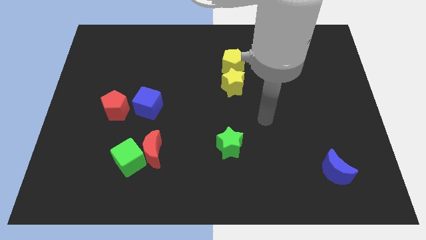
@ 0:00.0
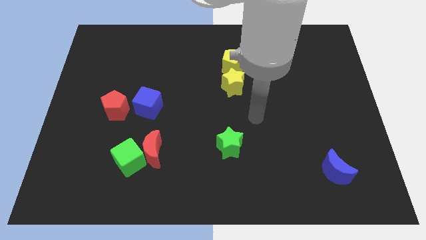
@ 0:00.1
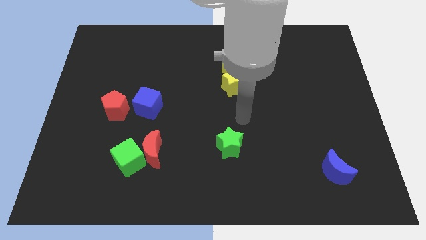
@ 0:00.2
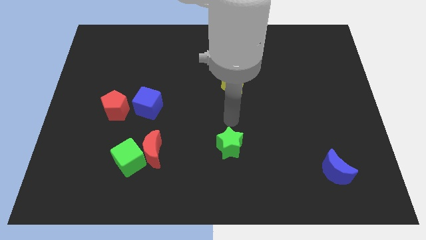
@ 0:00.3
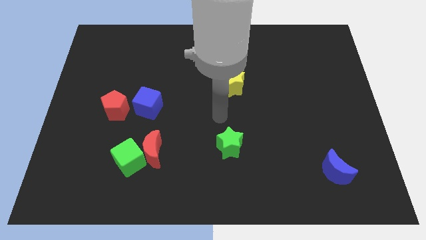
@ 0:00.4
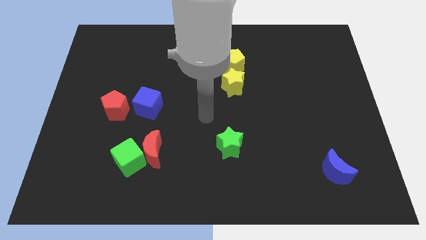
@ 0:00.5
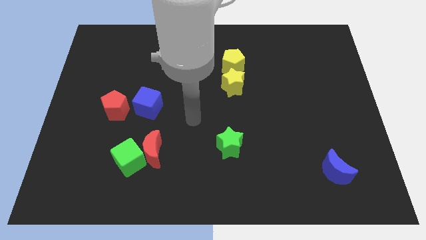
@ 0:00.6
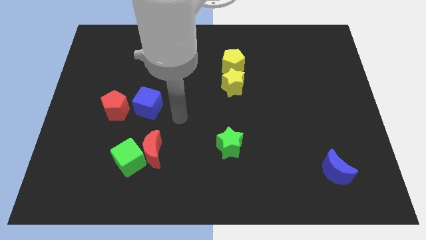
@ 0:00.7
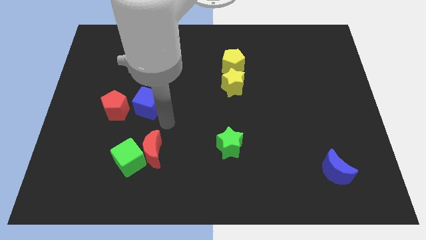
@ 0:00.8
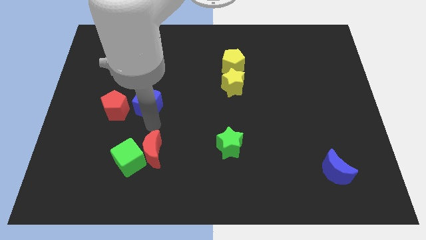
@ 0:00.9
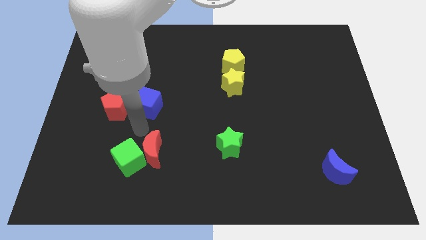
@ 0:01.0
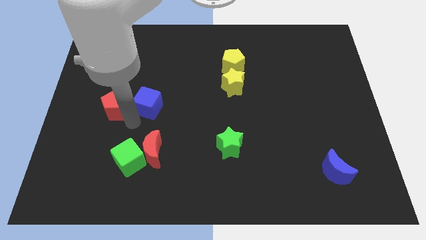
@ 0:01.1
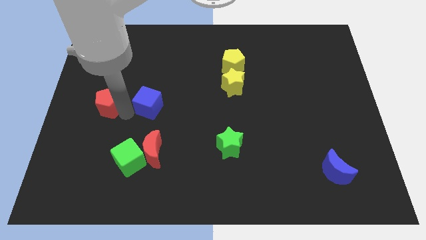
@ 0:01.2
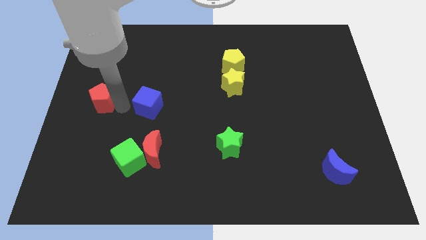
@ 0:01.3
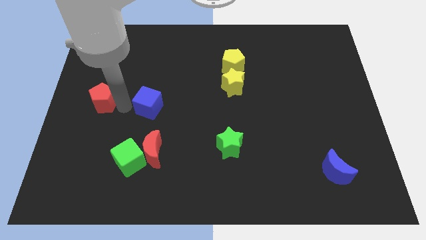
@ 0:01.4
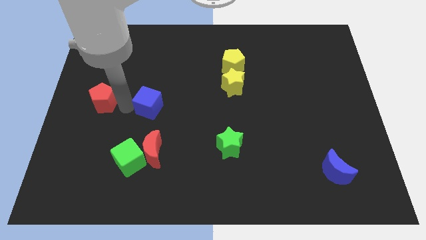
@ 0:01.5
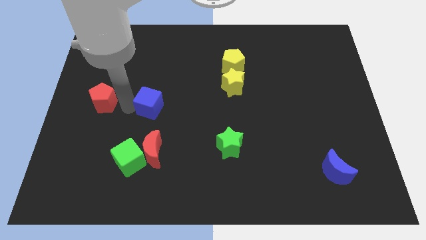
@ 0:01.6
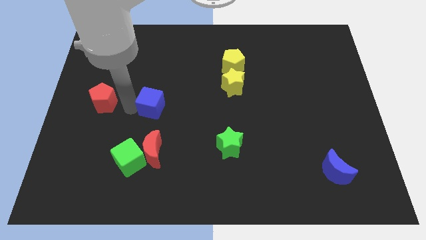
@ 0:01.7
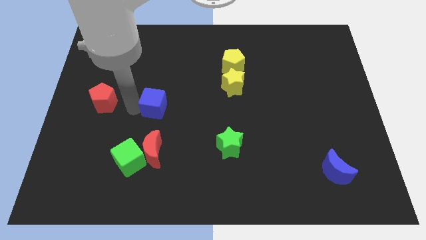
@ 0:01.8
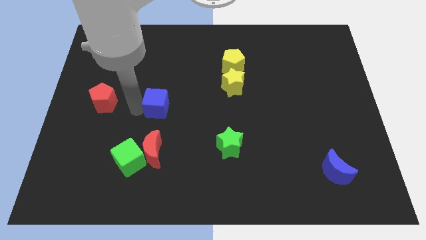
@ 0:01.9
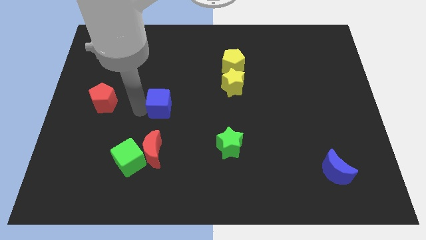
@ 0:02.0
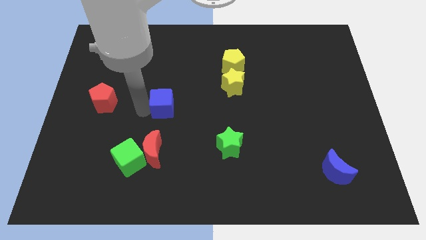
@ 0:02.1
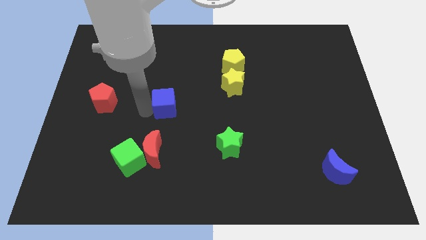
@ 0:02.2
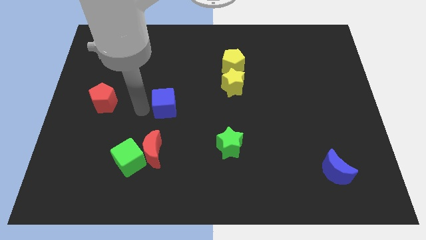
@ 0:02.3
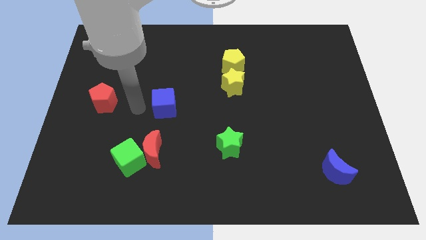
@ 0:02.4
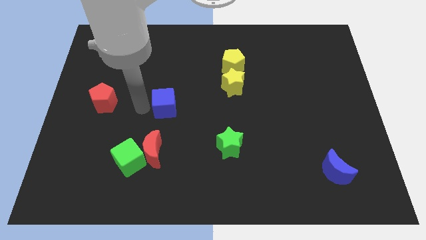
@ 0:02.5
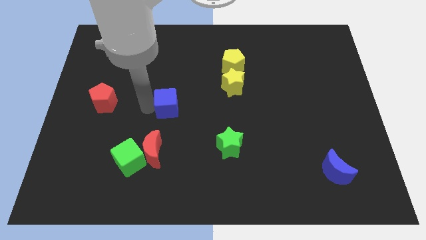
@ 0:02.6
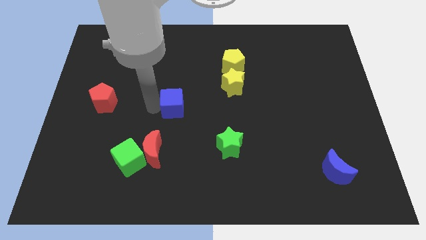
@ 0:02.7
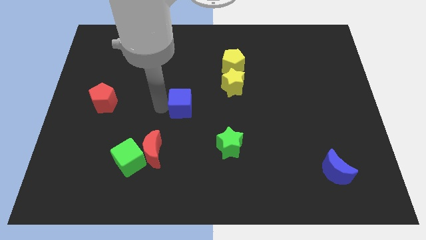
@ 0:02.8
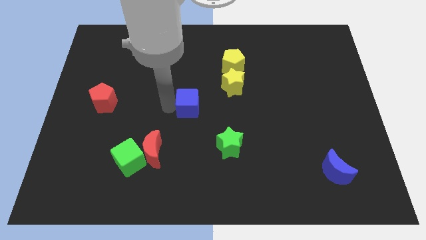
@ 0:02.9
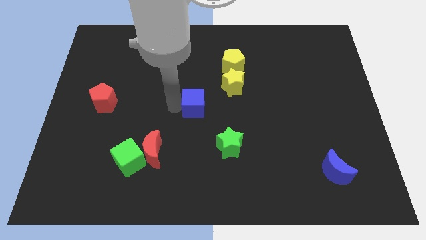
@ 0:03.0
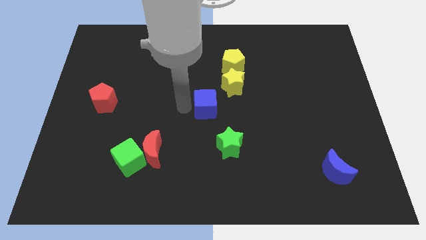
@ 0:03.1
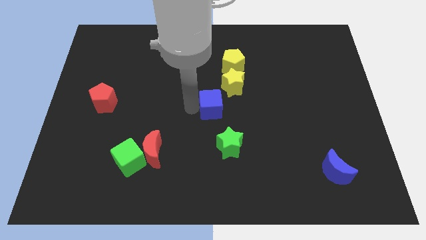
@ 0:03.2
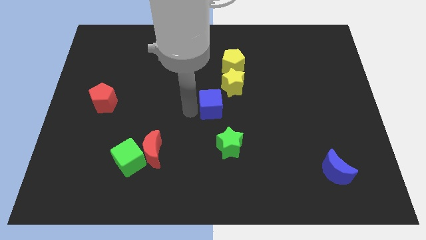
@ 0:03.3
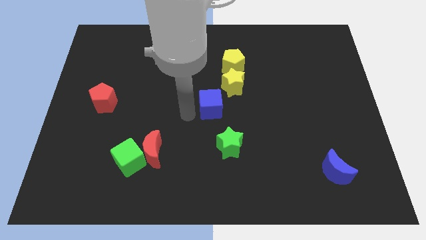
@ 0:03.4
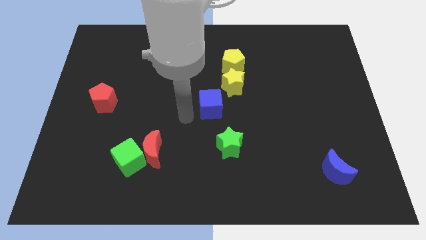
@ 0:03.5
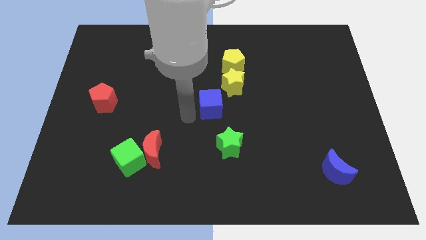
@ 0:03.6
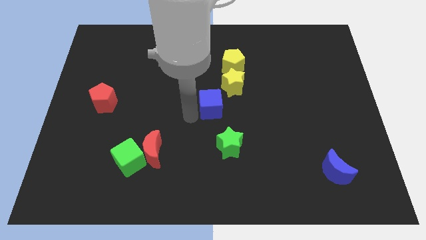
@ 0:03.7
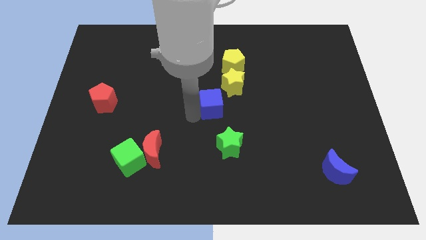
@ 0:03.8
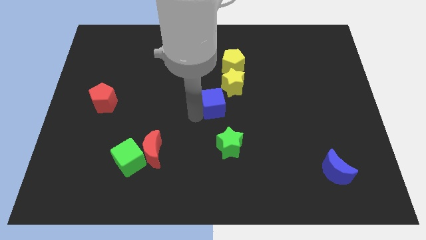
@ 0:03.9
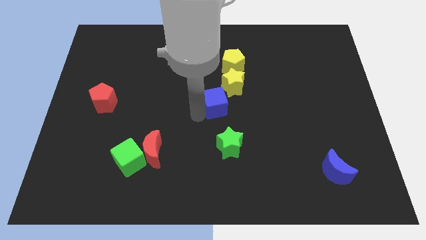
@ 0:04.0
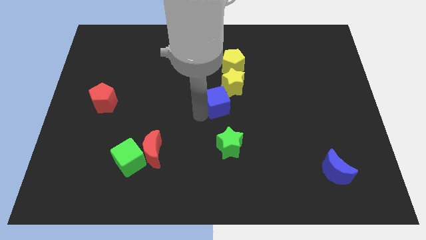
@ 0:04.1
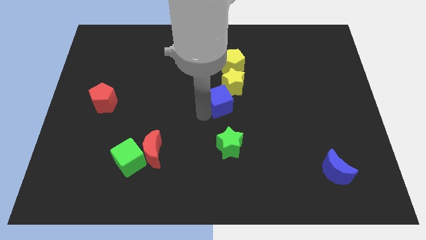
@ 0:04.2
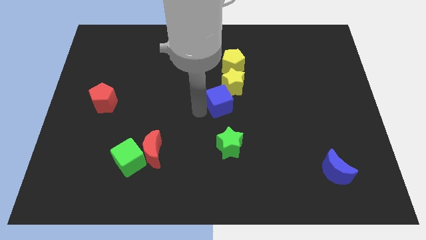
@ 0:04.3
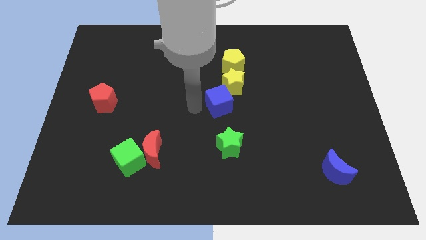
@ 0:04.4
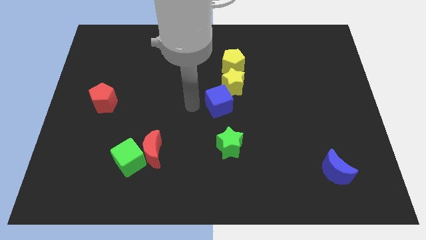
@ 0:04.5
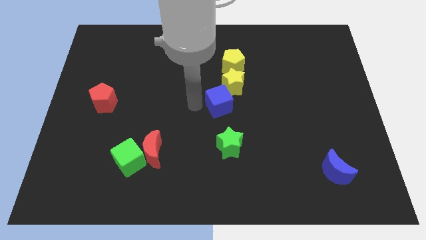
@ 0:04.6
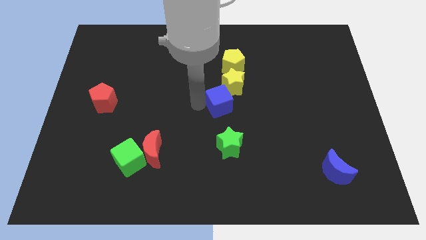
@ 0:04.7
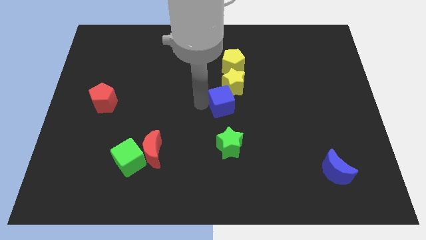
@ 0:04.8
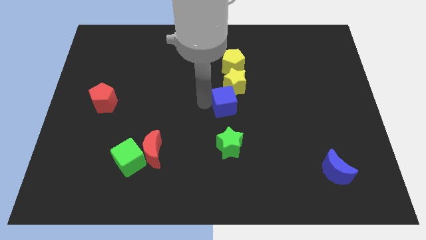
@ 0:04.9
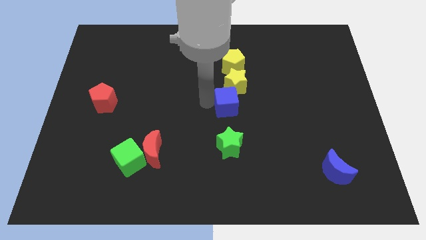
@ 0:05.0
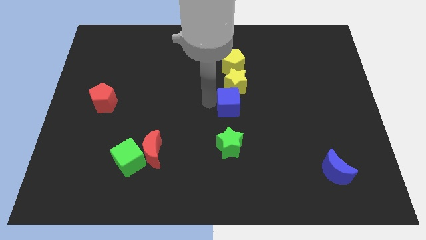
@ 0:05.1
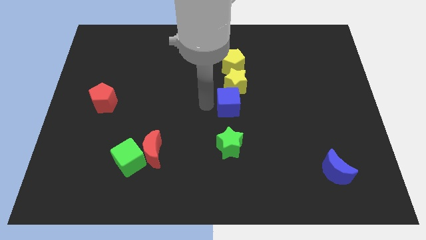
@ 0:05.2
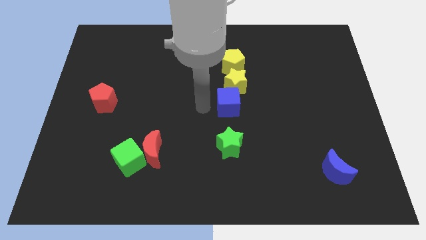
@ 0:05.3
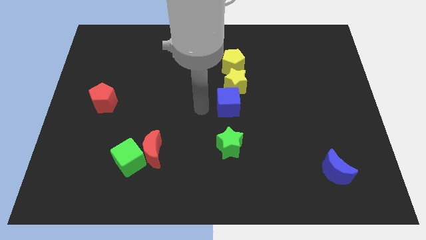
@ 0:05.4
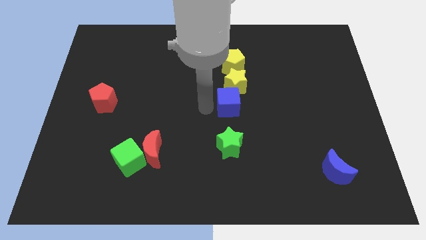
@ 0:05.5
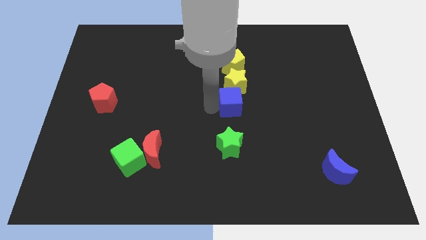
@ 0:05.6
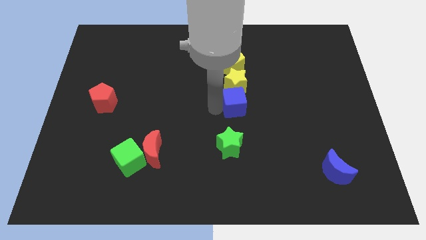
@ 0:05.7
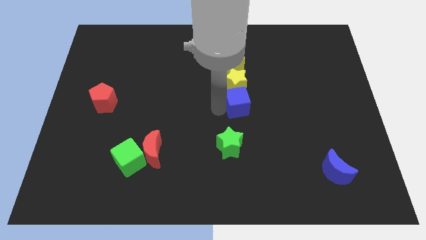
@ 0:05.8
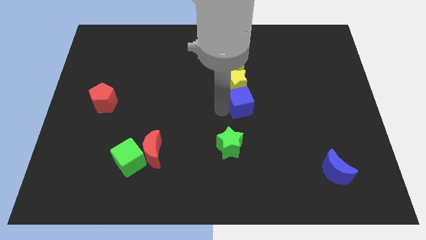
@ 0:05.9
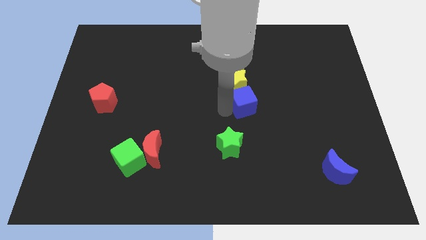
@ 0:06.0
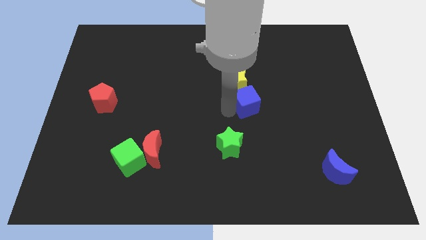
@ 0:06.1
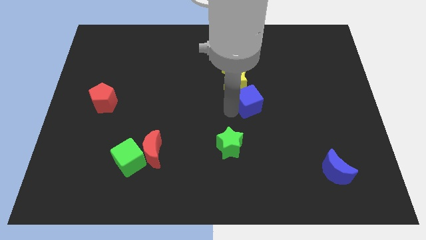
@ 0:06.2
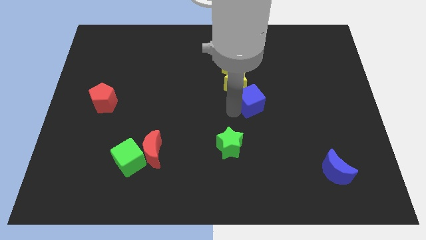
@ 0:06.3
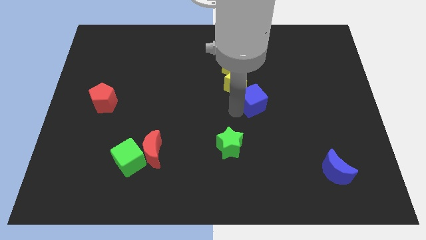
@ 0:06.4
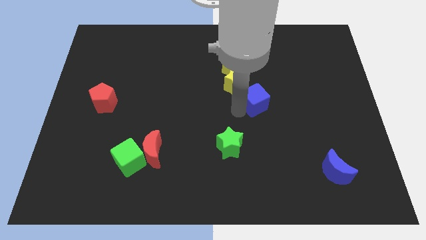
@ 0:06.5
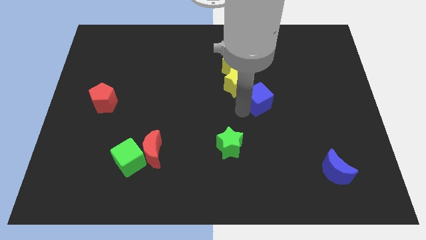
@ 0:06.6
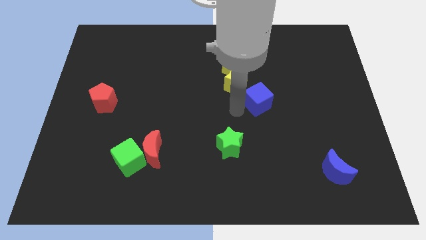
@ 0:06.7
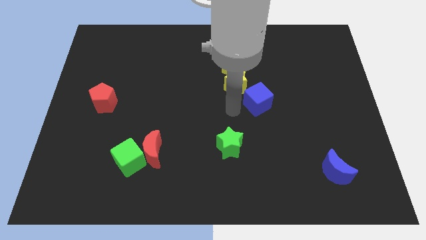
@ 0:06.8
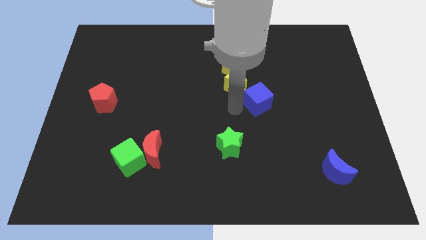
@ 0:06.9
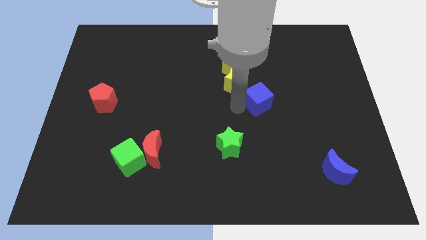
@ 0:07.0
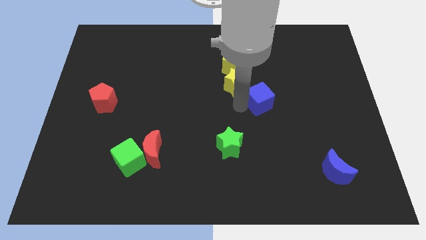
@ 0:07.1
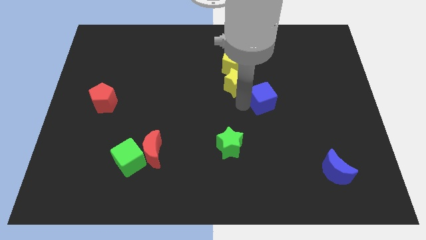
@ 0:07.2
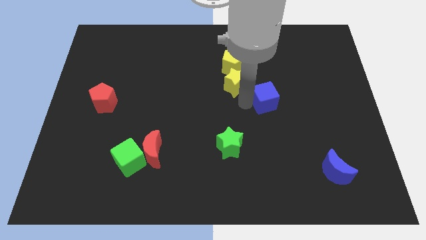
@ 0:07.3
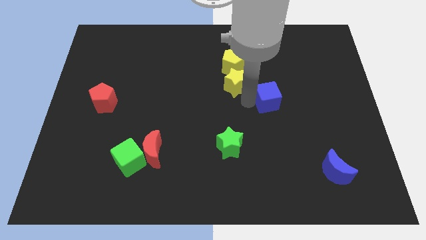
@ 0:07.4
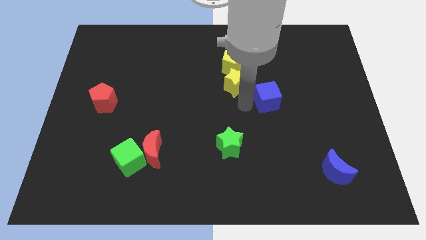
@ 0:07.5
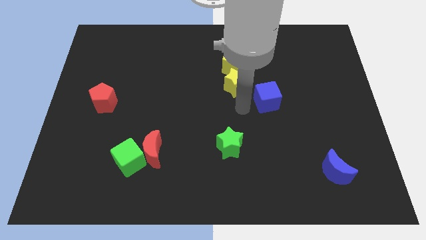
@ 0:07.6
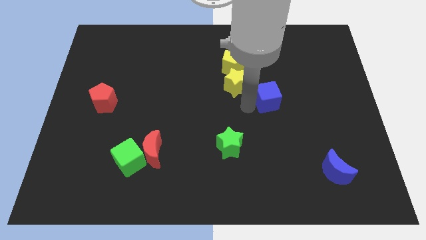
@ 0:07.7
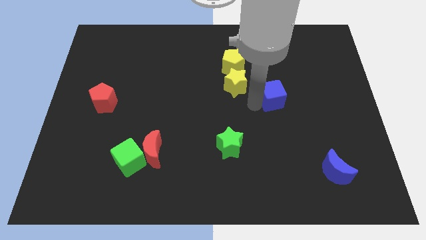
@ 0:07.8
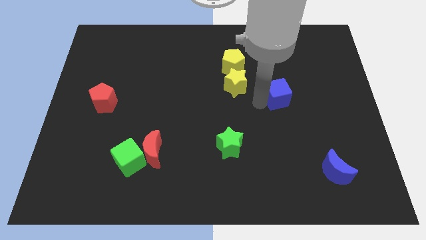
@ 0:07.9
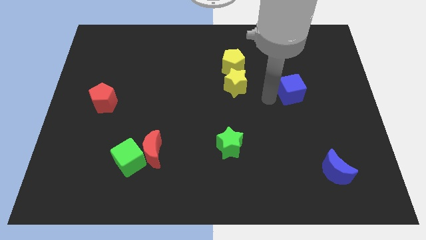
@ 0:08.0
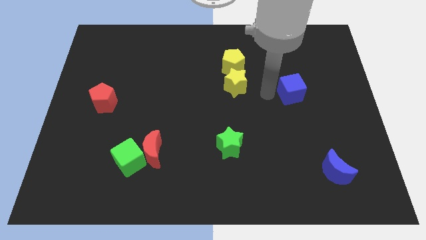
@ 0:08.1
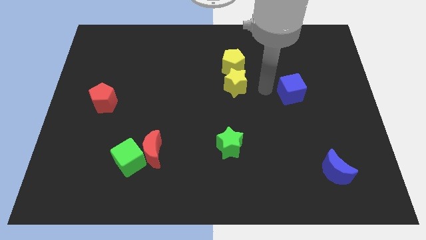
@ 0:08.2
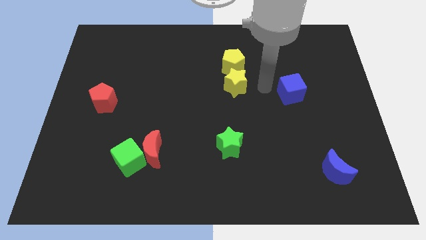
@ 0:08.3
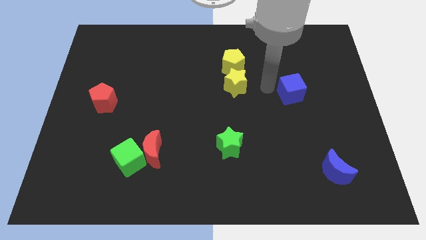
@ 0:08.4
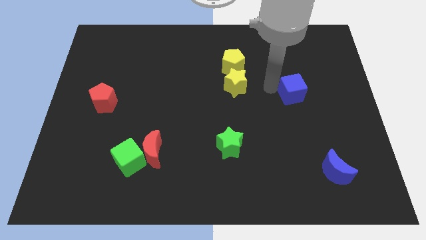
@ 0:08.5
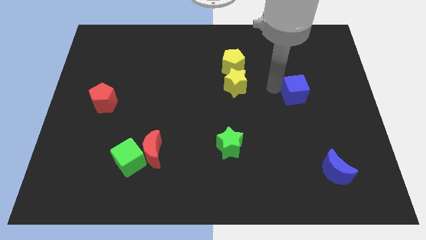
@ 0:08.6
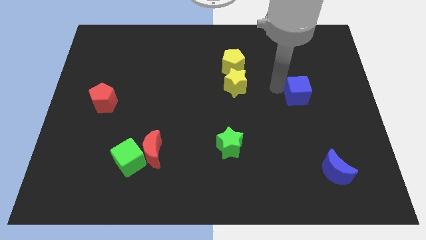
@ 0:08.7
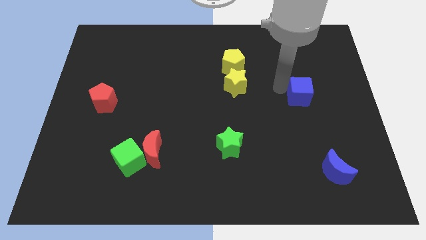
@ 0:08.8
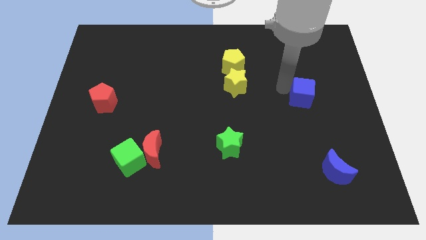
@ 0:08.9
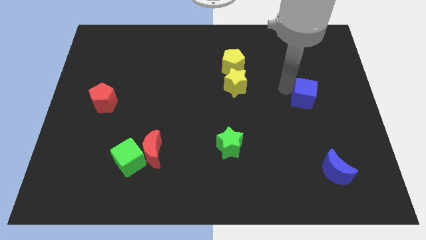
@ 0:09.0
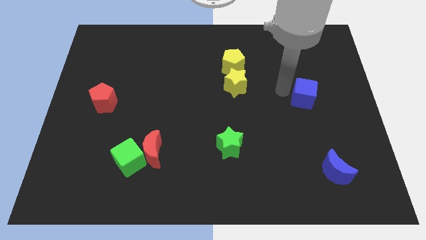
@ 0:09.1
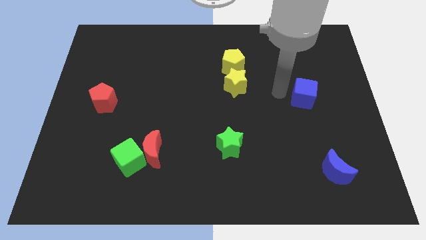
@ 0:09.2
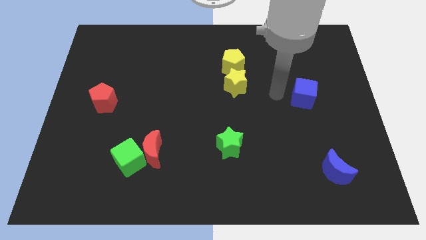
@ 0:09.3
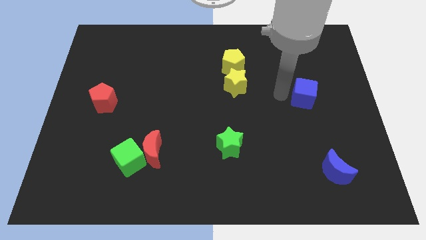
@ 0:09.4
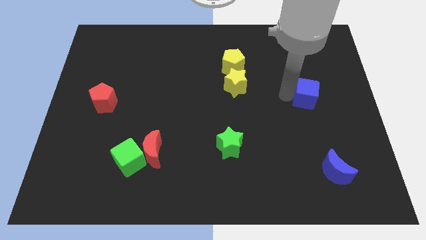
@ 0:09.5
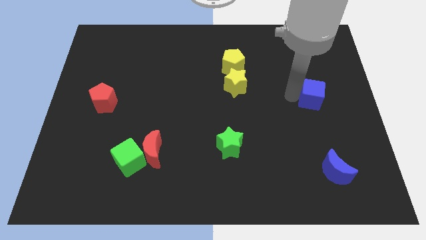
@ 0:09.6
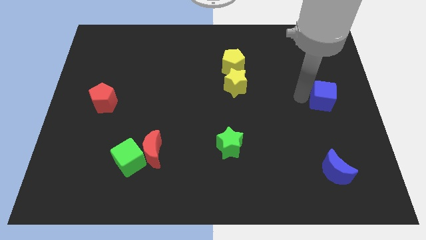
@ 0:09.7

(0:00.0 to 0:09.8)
push the blue cube to the center right
